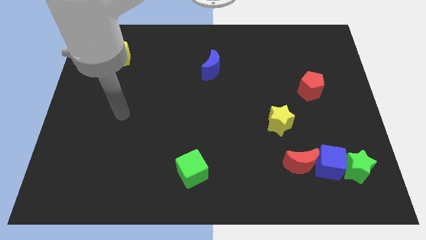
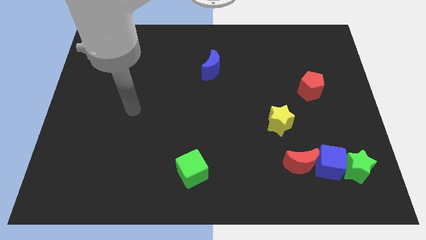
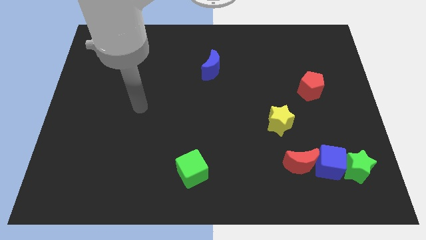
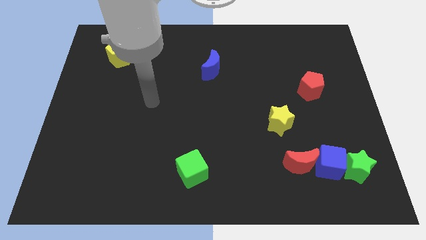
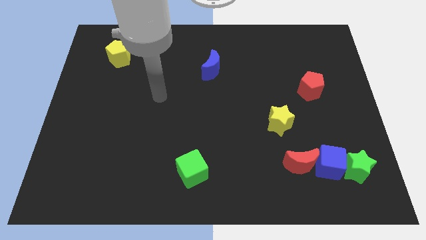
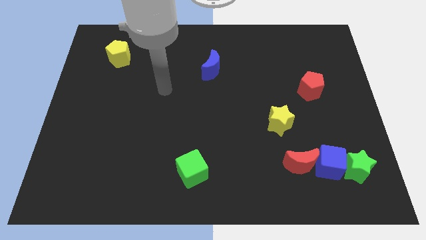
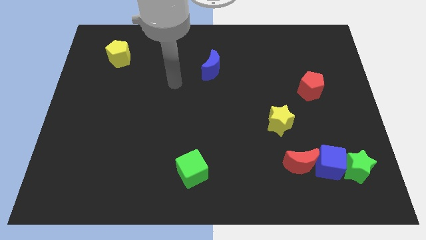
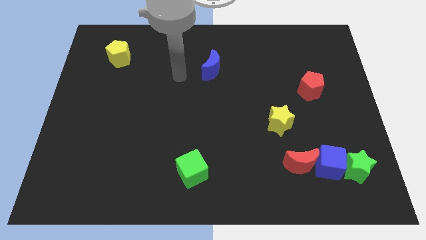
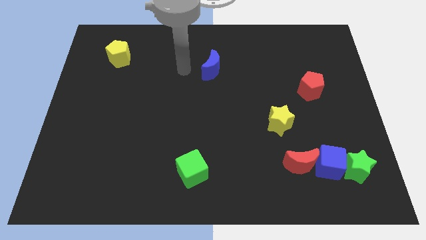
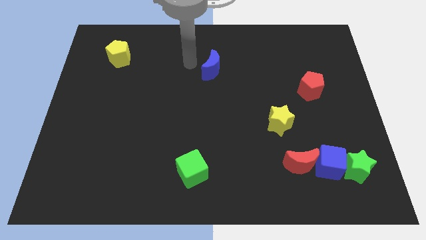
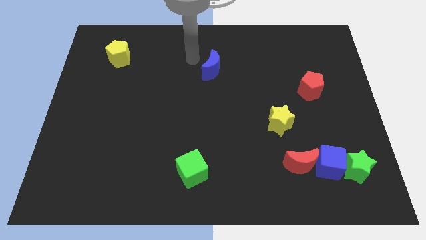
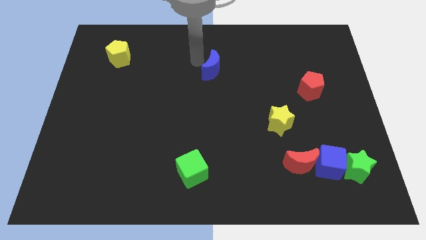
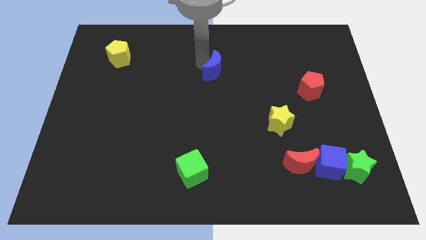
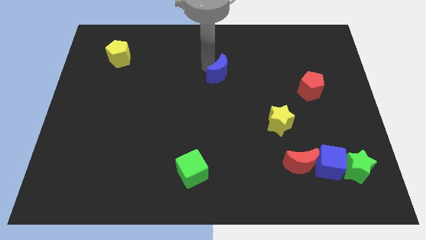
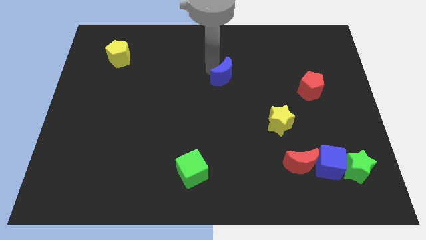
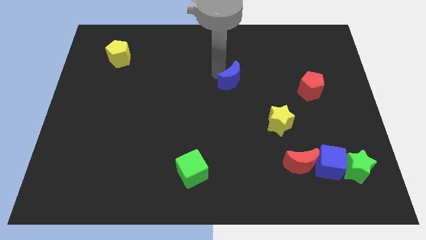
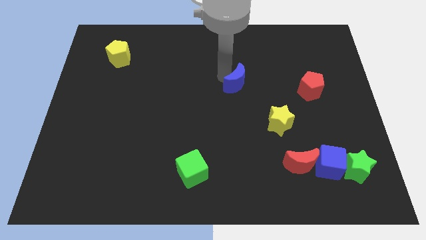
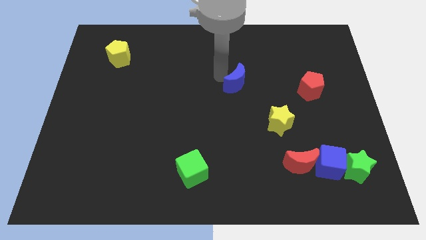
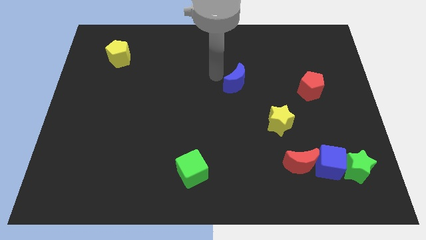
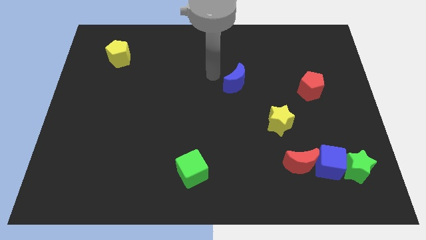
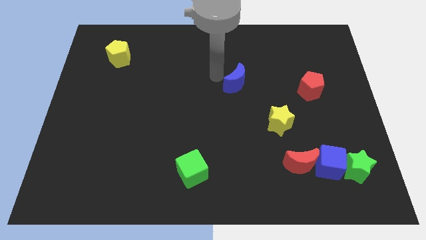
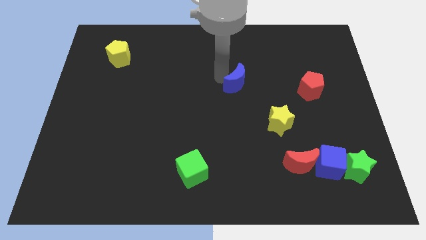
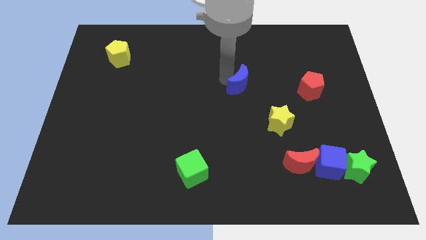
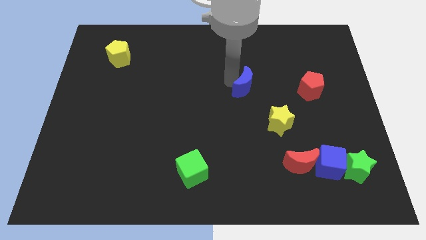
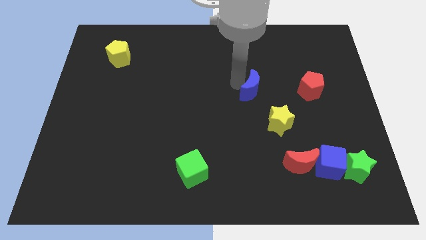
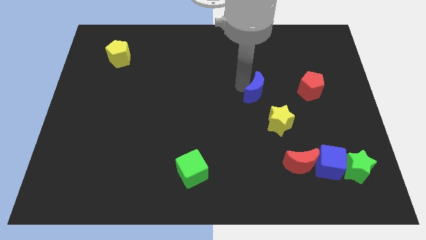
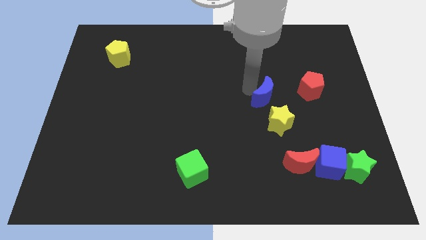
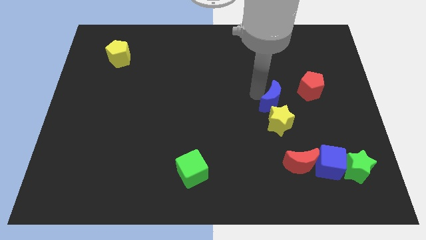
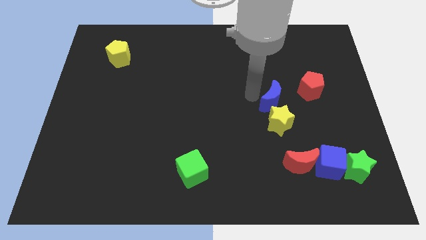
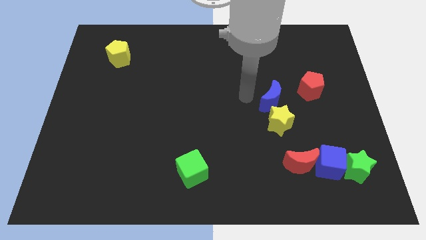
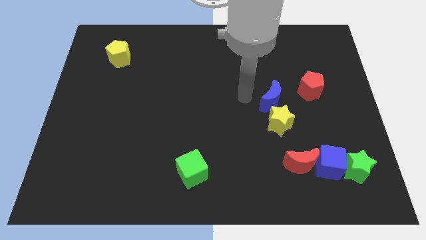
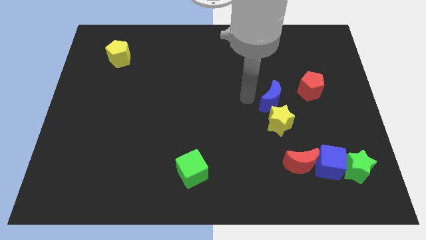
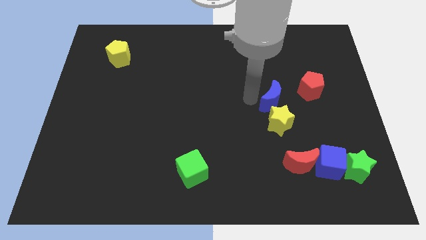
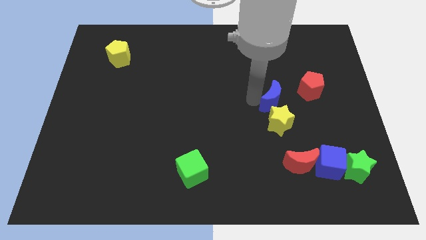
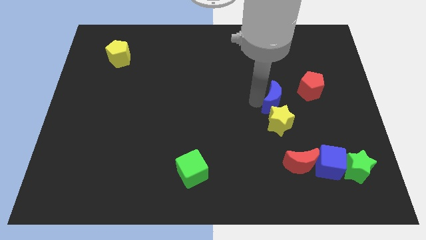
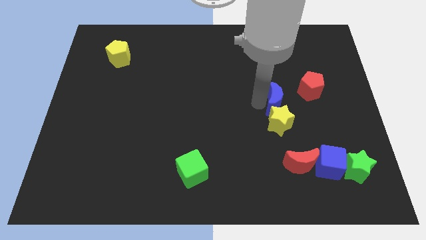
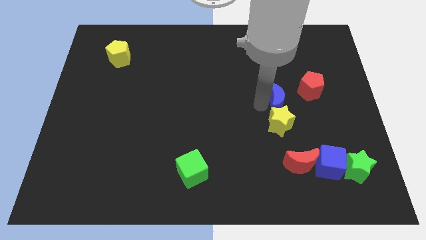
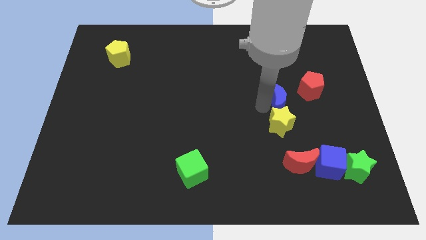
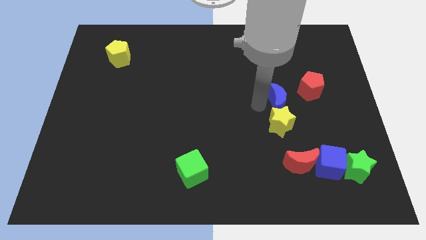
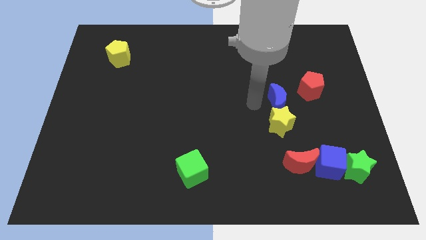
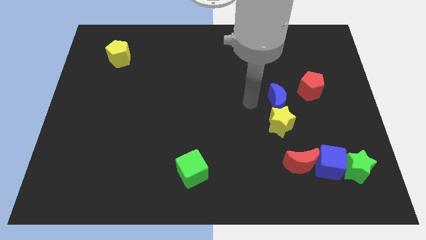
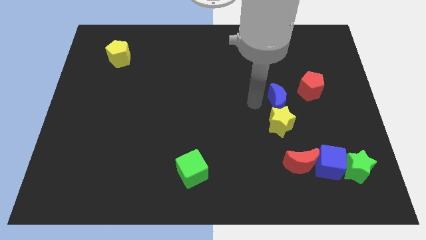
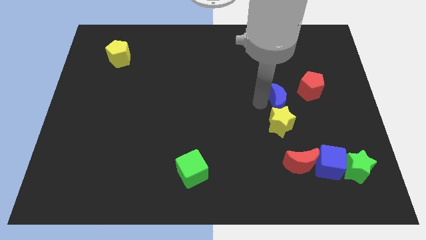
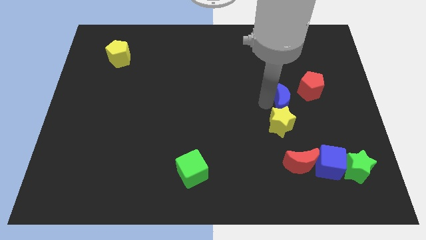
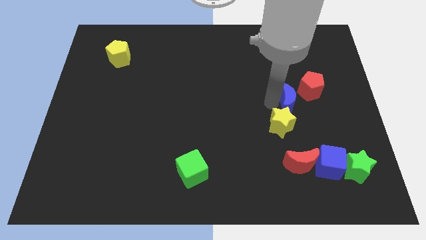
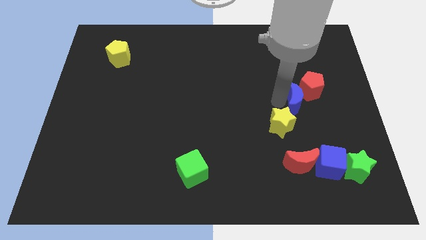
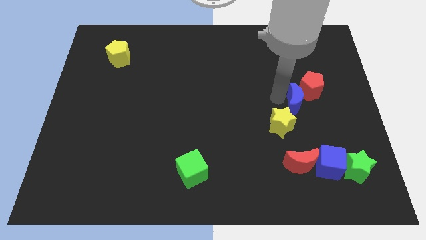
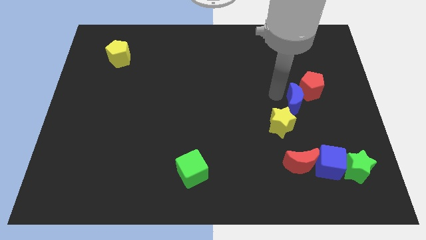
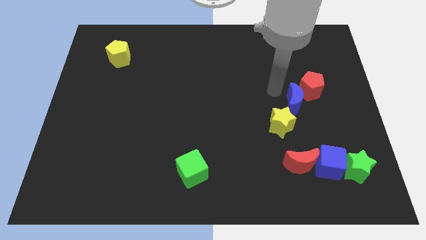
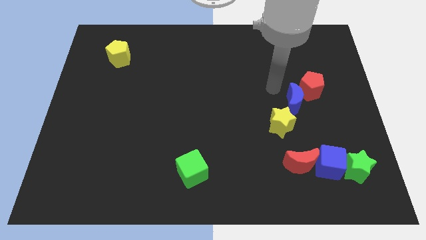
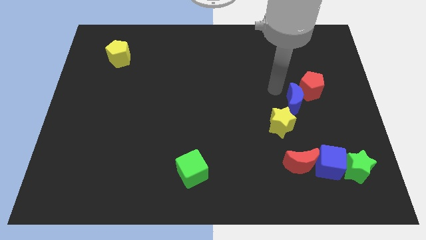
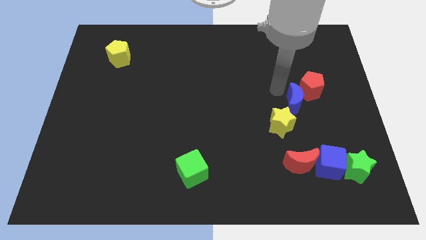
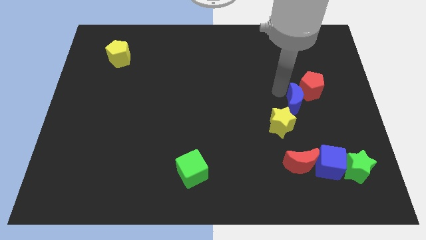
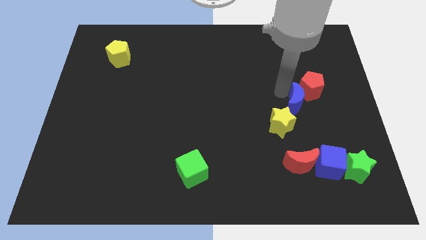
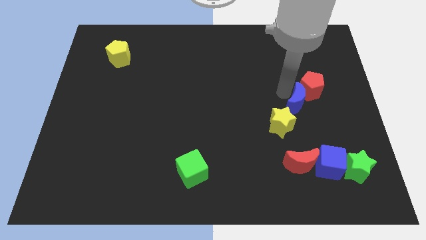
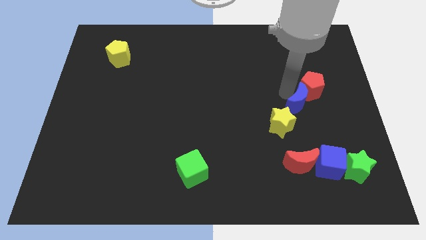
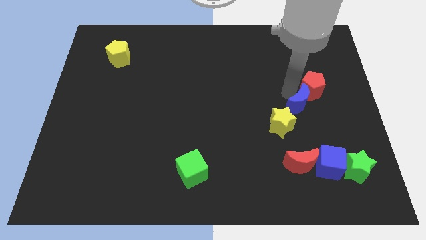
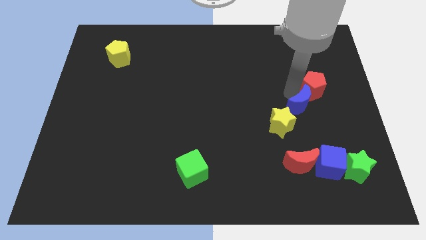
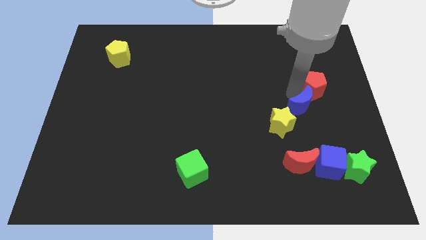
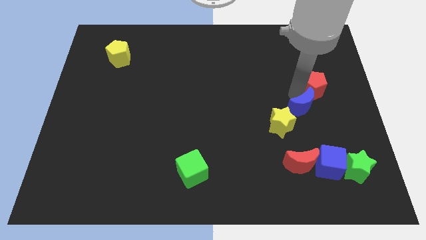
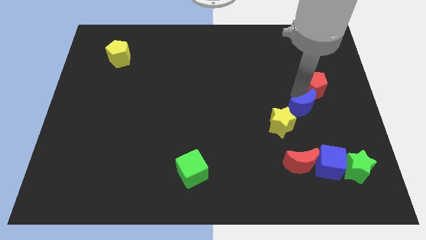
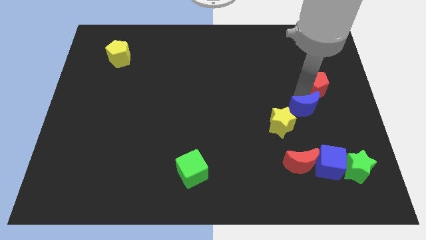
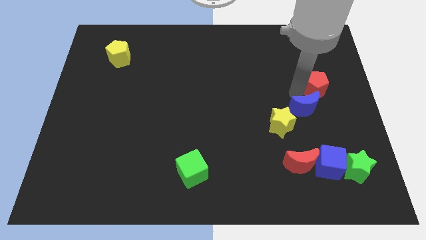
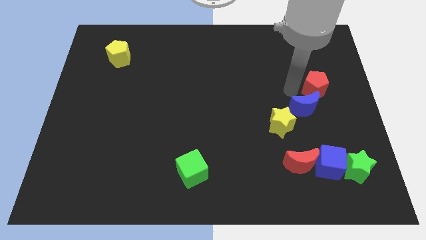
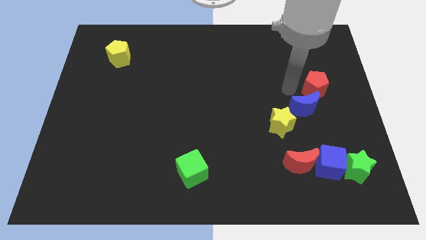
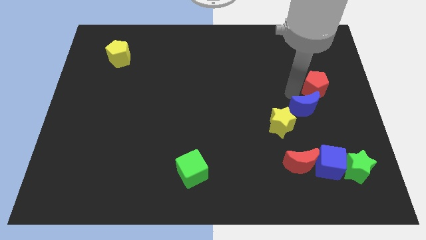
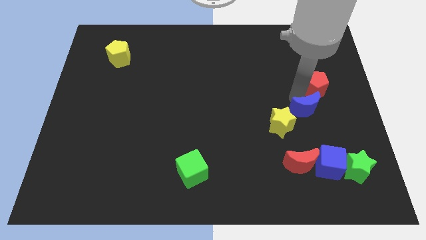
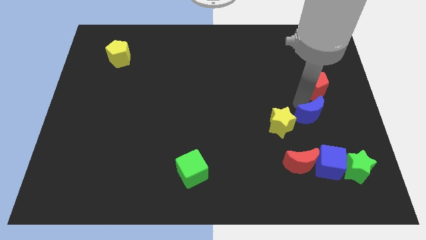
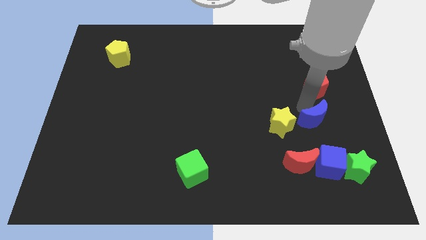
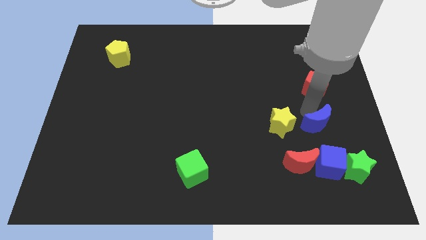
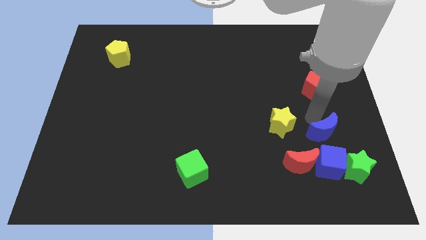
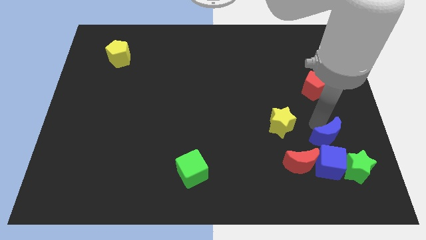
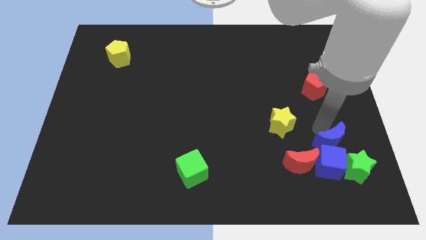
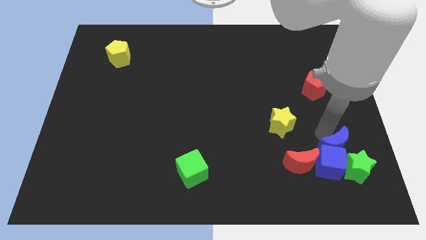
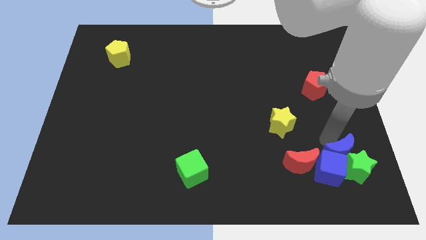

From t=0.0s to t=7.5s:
push the blue moon towards the green star
